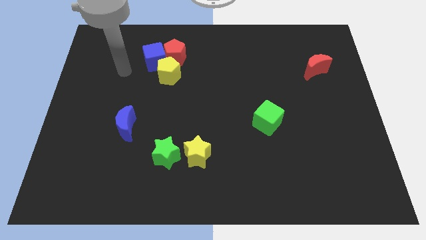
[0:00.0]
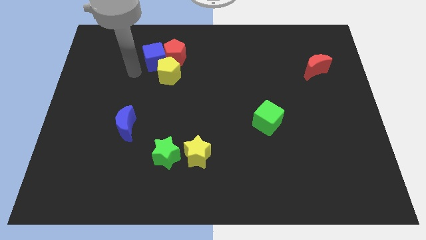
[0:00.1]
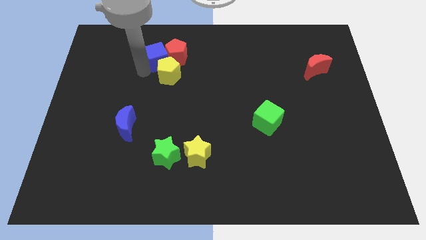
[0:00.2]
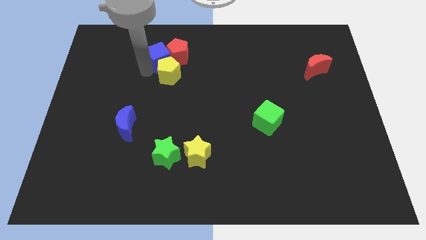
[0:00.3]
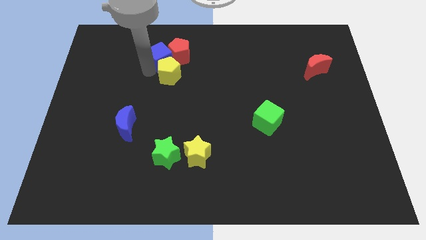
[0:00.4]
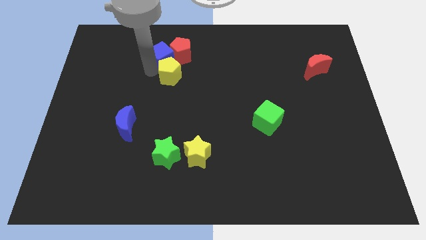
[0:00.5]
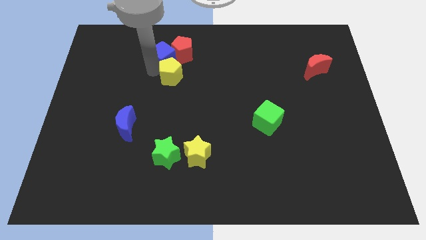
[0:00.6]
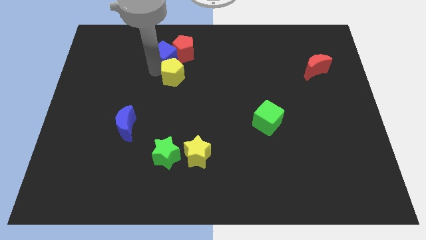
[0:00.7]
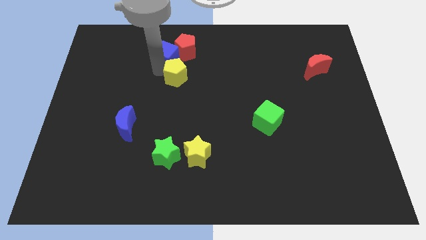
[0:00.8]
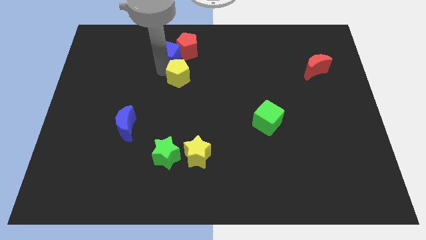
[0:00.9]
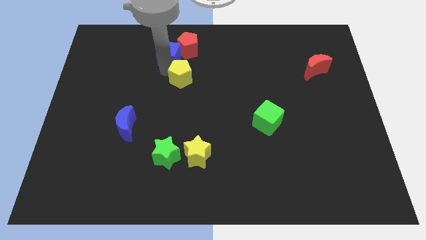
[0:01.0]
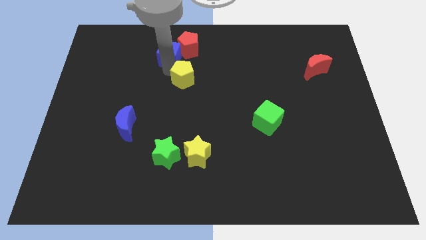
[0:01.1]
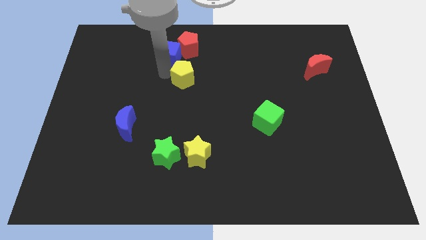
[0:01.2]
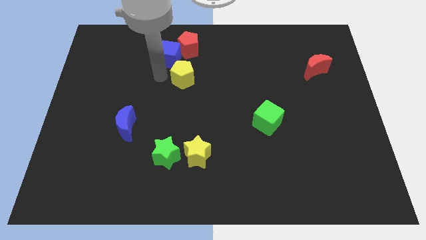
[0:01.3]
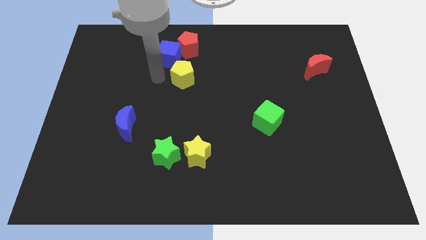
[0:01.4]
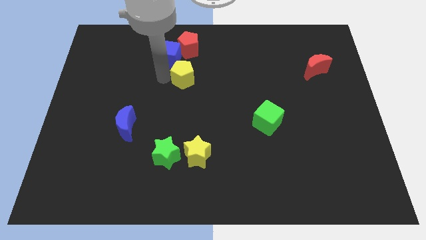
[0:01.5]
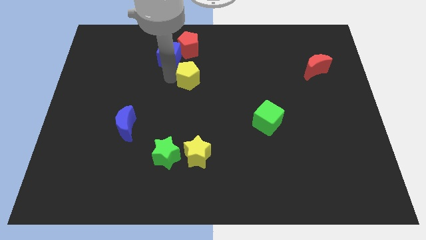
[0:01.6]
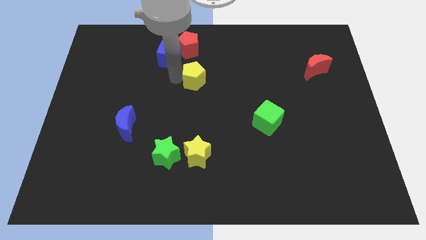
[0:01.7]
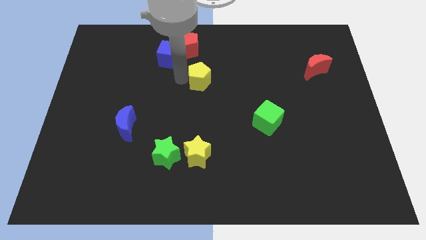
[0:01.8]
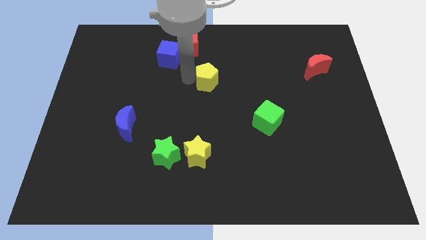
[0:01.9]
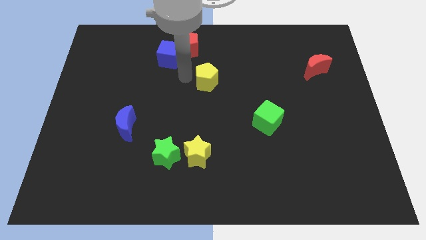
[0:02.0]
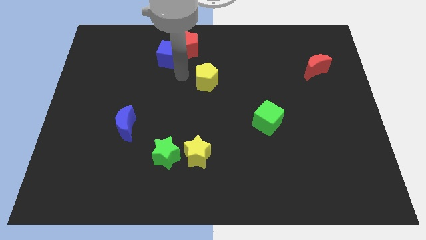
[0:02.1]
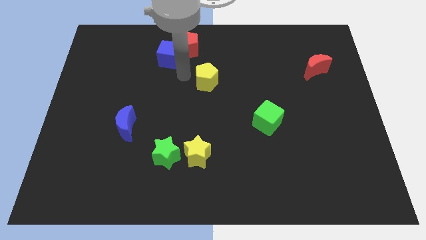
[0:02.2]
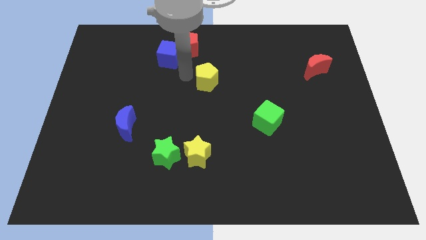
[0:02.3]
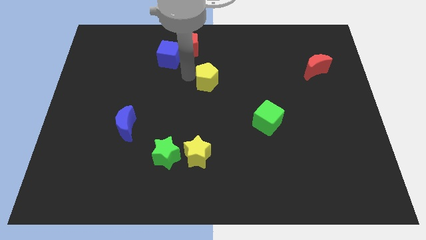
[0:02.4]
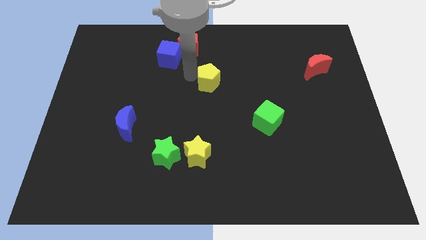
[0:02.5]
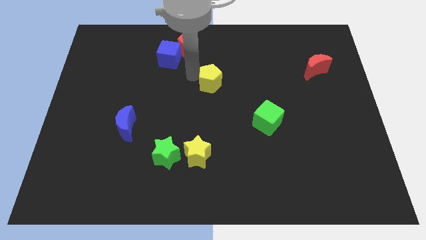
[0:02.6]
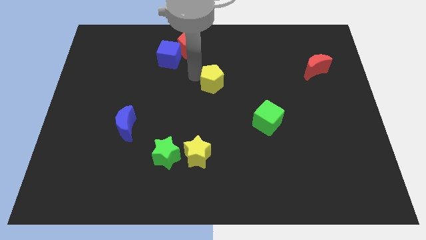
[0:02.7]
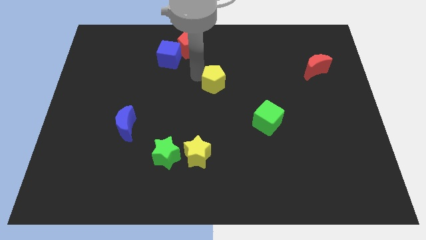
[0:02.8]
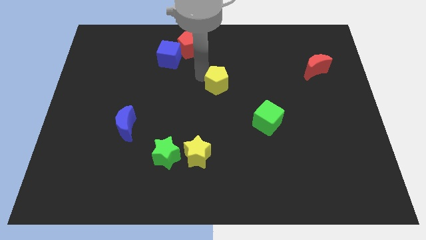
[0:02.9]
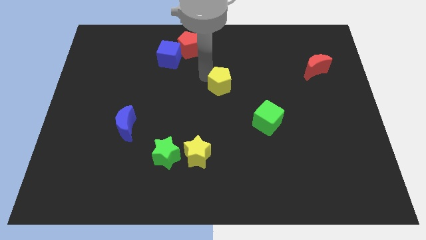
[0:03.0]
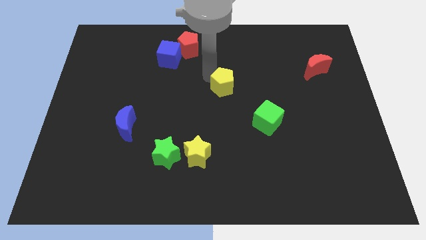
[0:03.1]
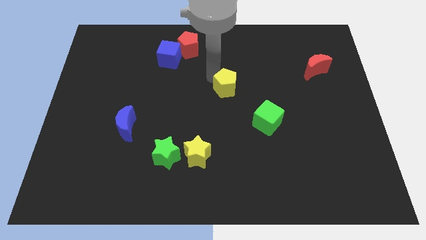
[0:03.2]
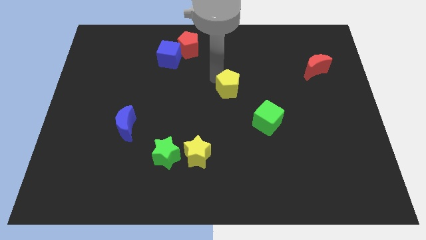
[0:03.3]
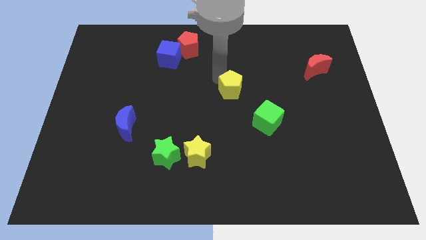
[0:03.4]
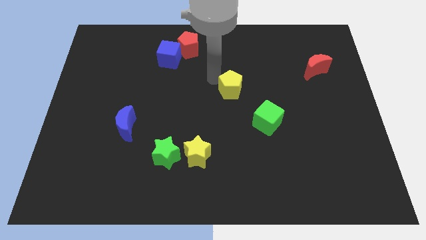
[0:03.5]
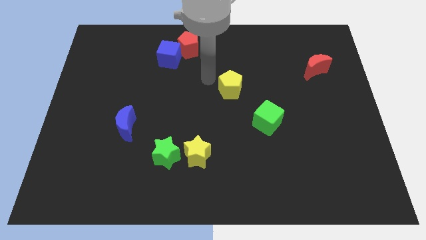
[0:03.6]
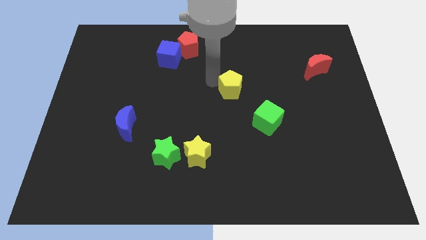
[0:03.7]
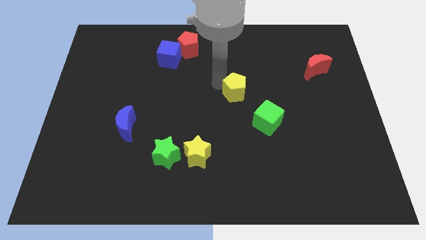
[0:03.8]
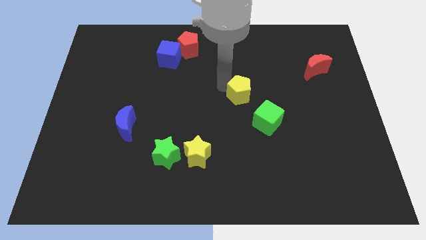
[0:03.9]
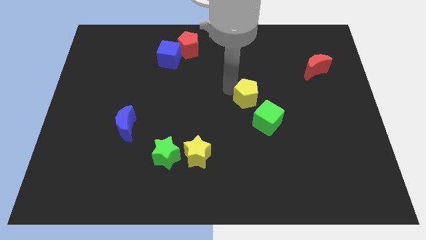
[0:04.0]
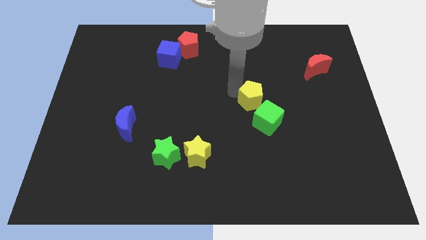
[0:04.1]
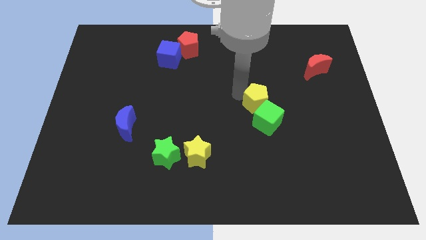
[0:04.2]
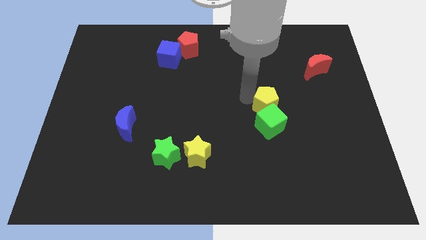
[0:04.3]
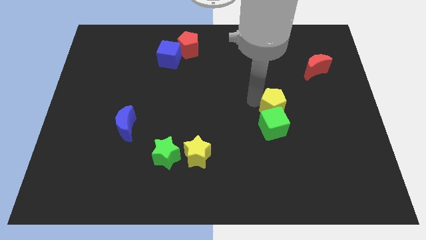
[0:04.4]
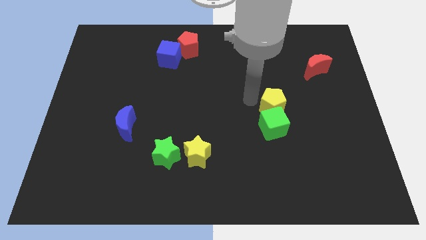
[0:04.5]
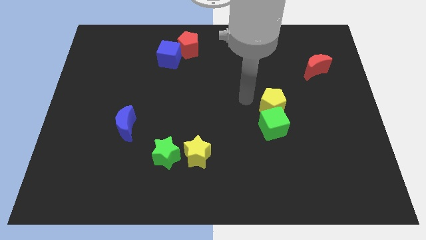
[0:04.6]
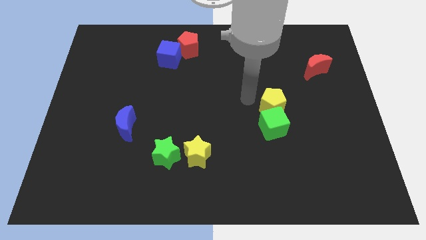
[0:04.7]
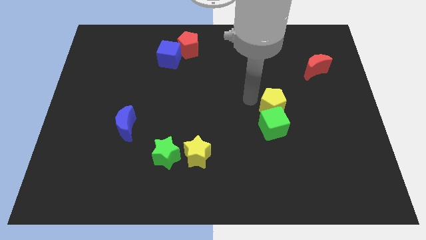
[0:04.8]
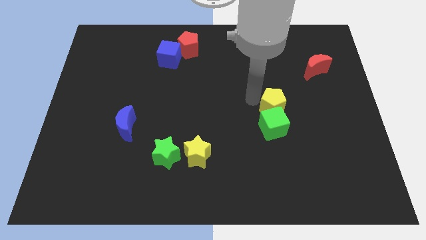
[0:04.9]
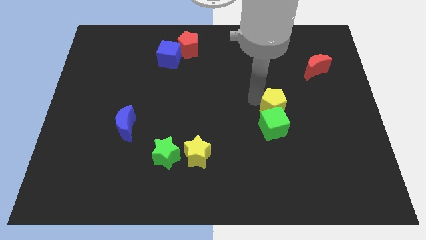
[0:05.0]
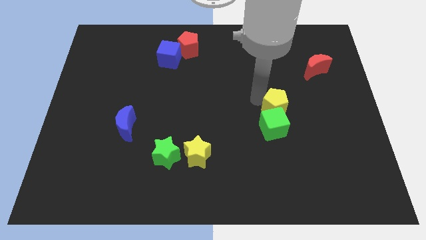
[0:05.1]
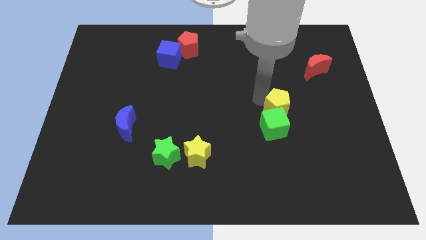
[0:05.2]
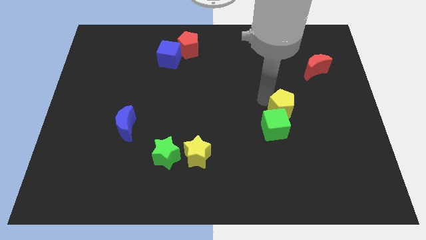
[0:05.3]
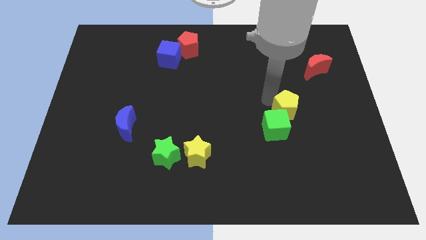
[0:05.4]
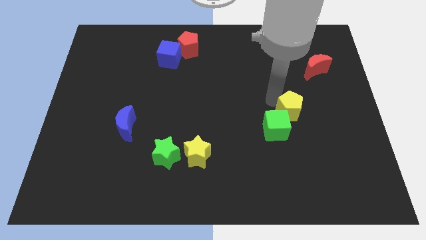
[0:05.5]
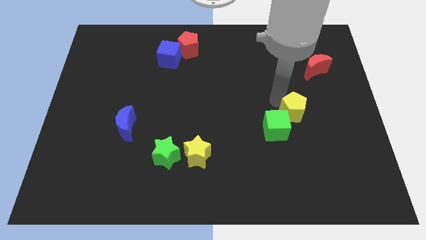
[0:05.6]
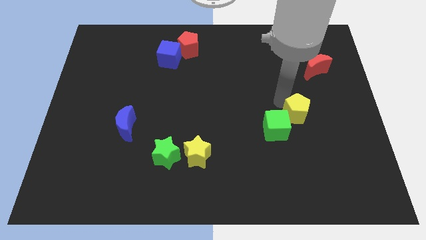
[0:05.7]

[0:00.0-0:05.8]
put the yellow pentagon to the right of the green cube

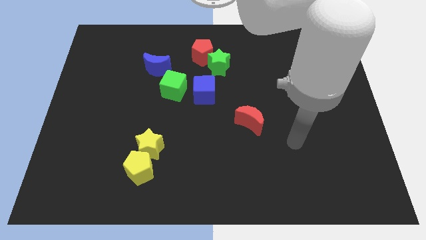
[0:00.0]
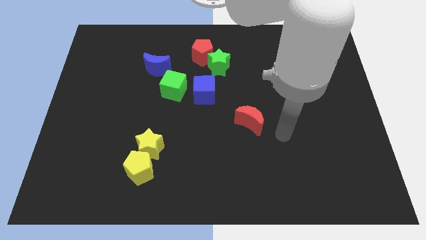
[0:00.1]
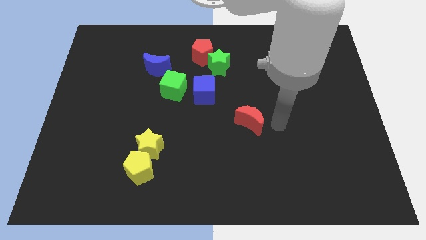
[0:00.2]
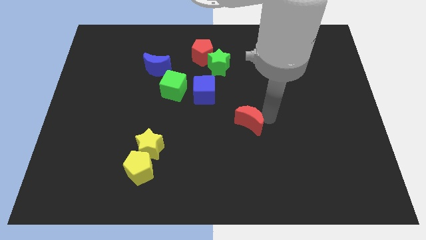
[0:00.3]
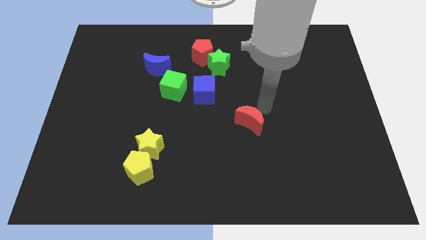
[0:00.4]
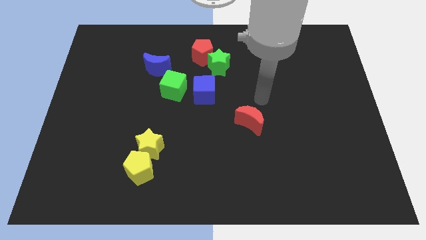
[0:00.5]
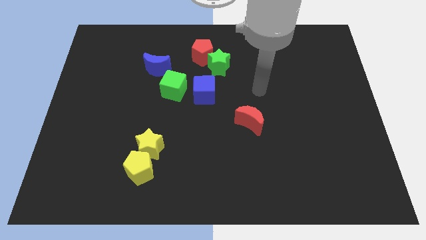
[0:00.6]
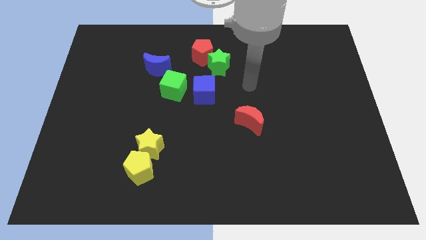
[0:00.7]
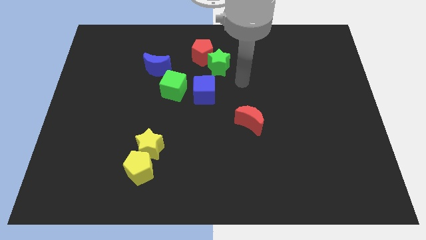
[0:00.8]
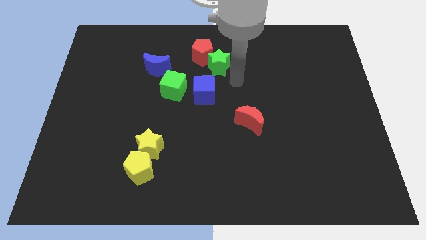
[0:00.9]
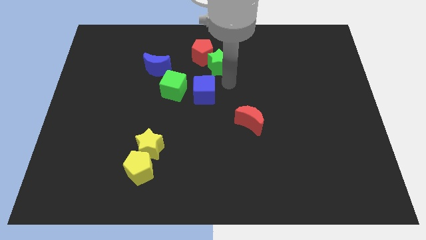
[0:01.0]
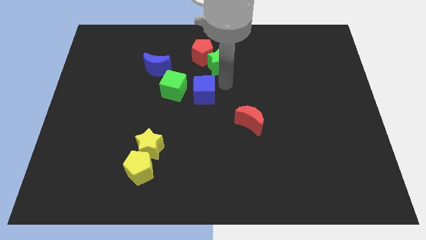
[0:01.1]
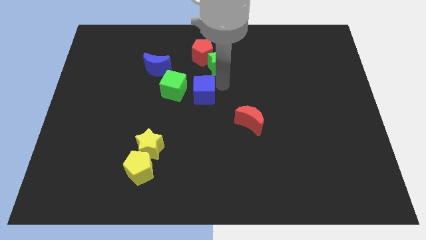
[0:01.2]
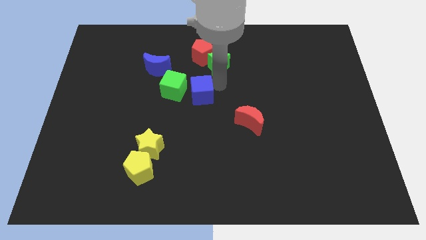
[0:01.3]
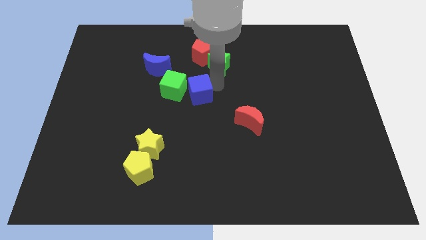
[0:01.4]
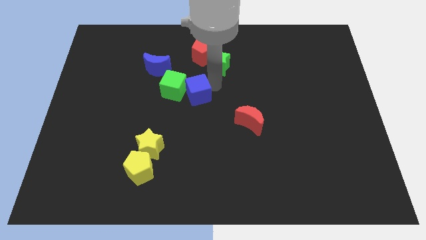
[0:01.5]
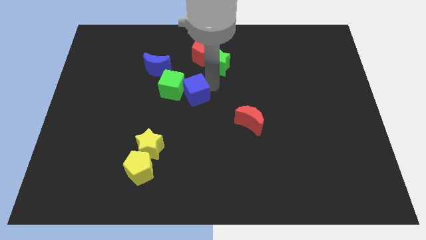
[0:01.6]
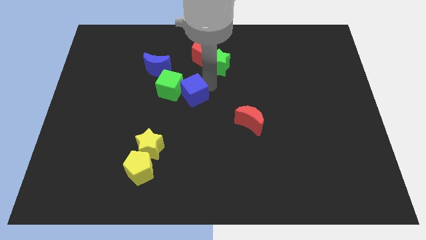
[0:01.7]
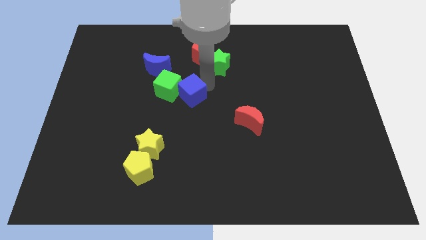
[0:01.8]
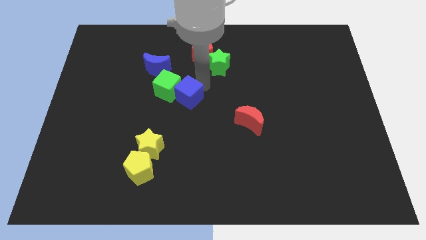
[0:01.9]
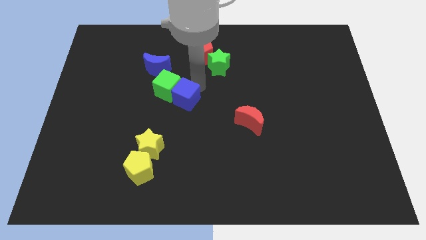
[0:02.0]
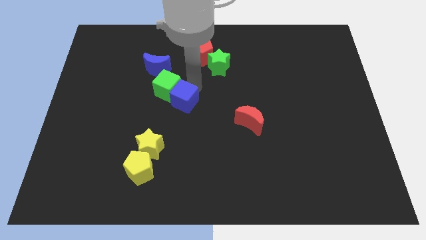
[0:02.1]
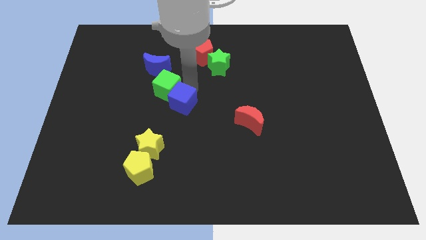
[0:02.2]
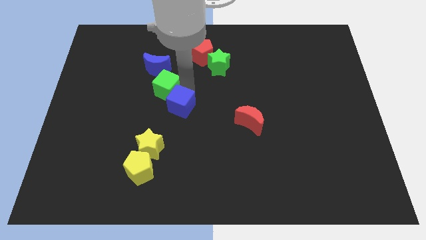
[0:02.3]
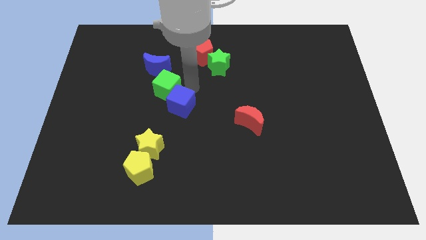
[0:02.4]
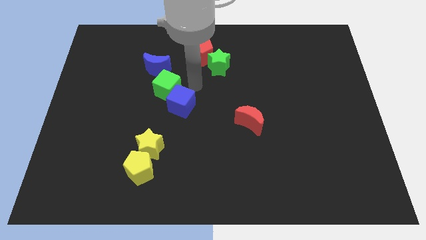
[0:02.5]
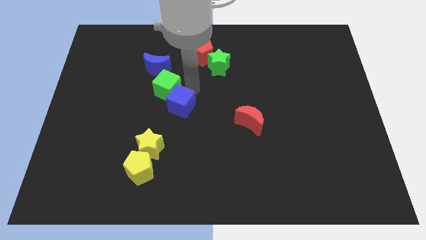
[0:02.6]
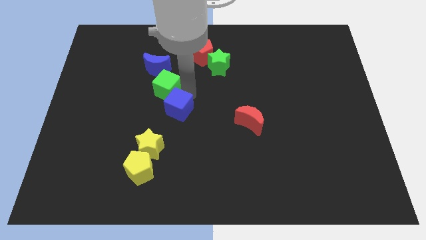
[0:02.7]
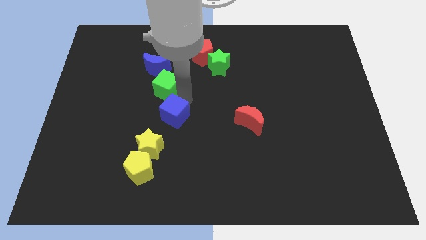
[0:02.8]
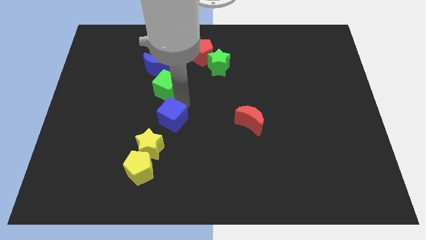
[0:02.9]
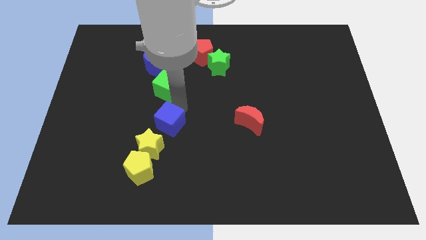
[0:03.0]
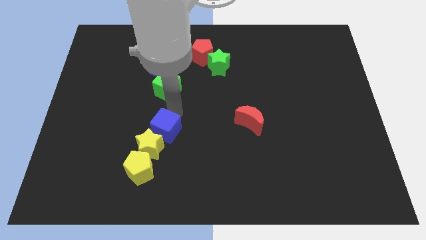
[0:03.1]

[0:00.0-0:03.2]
push the blue cube to the top right of the yellow pentagon
